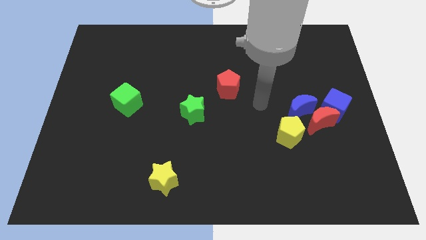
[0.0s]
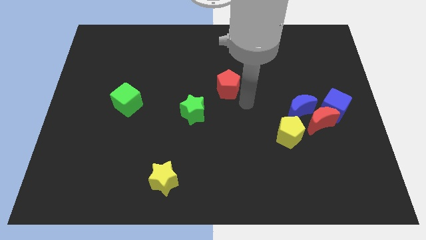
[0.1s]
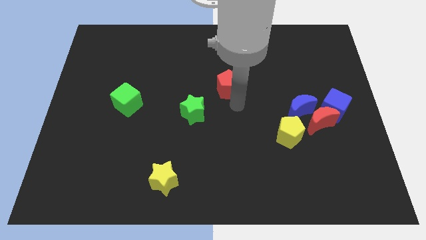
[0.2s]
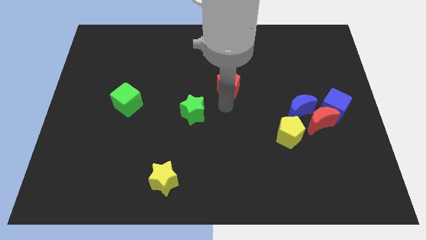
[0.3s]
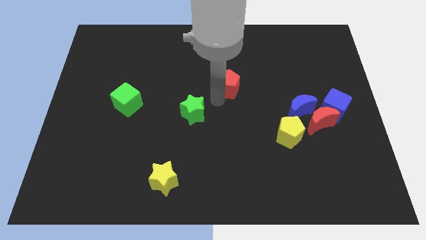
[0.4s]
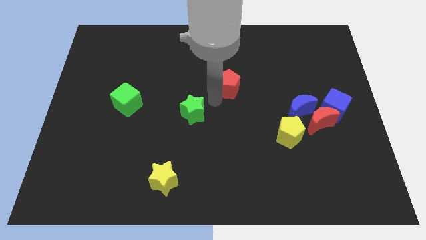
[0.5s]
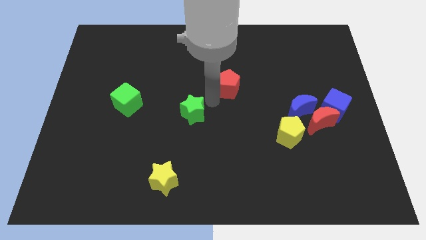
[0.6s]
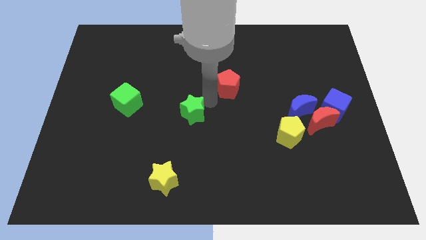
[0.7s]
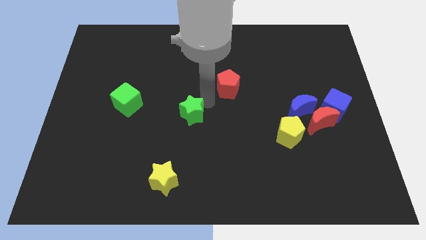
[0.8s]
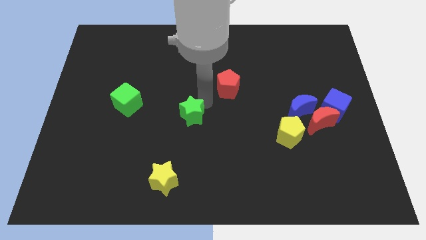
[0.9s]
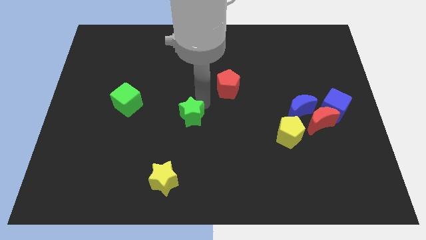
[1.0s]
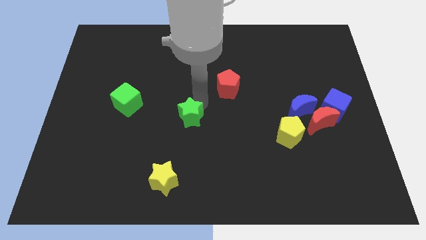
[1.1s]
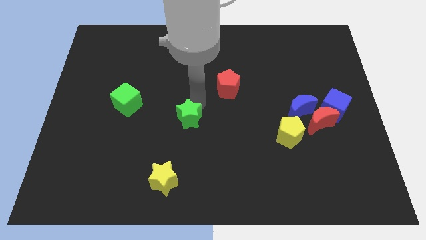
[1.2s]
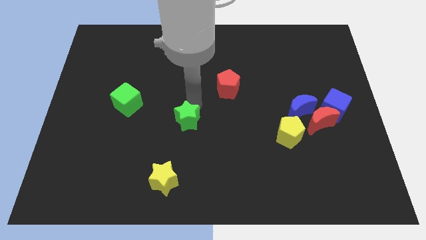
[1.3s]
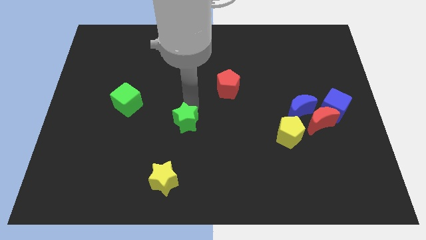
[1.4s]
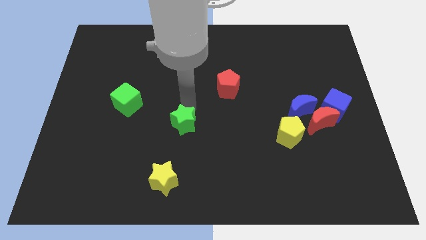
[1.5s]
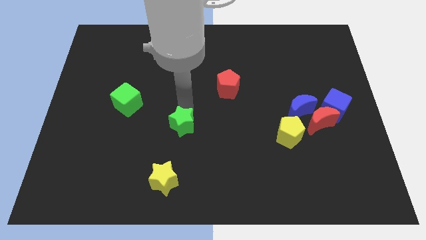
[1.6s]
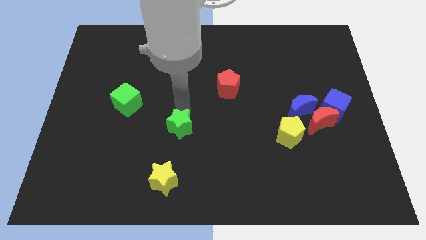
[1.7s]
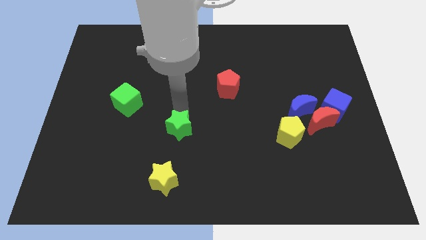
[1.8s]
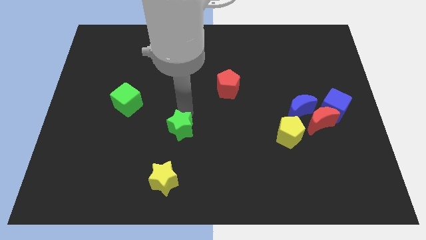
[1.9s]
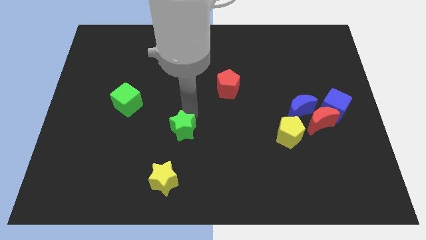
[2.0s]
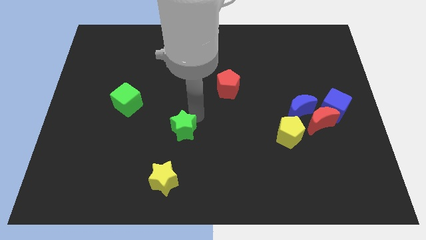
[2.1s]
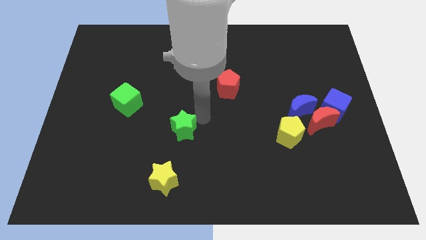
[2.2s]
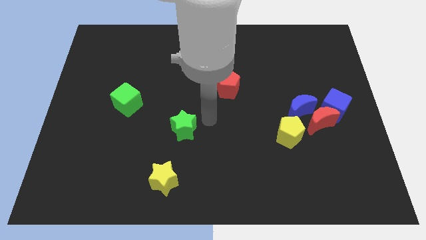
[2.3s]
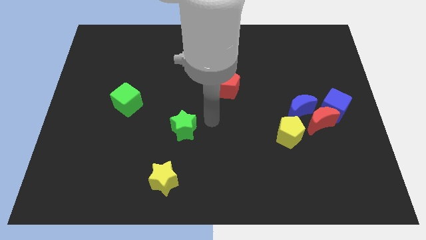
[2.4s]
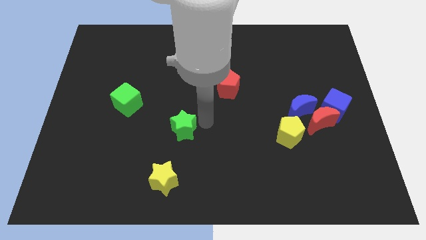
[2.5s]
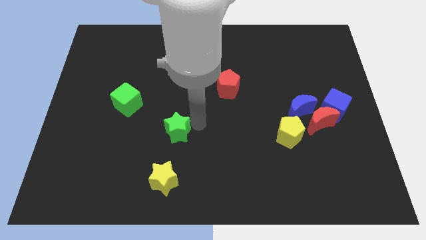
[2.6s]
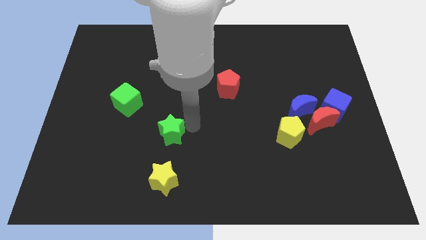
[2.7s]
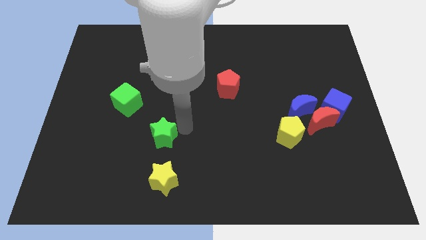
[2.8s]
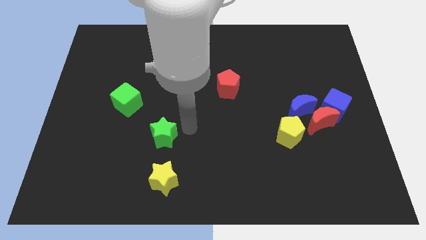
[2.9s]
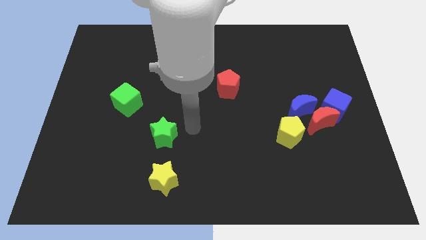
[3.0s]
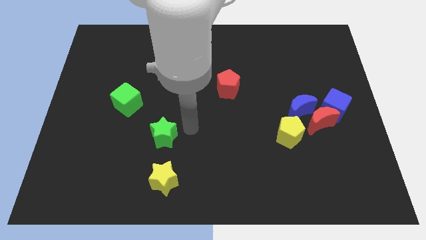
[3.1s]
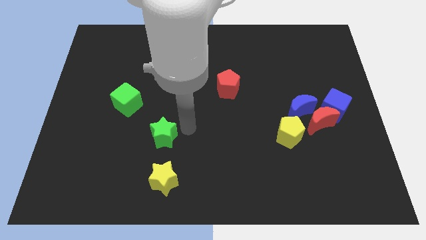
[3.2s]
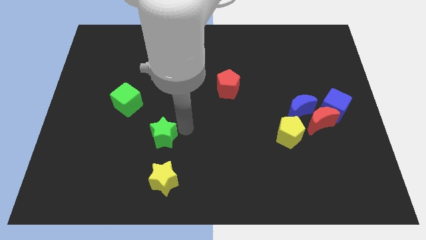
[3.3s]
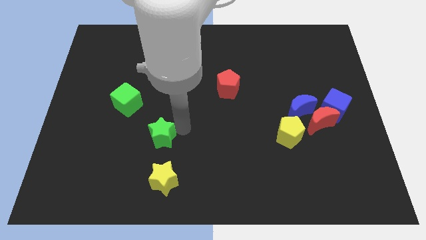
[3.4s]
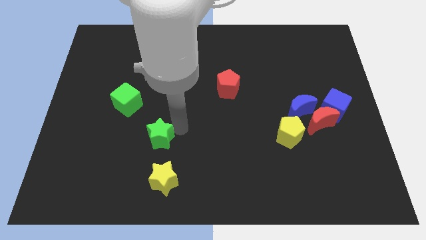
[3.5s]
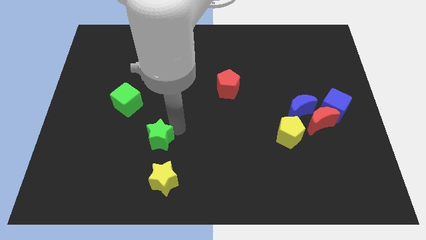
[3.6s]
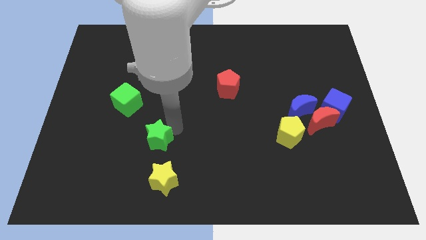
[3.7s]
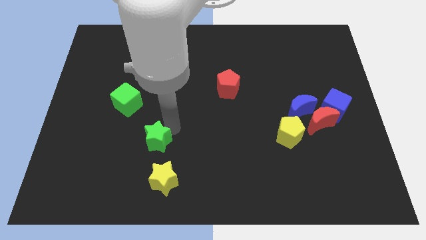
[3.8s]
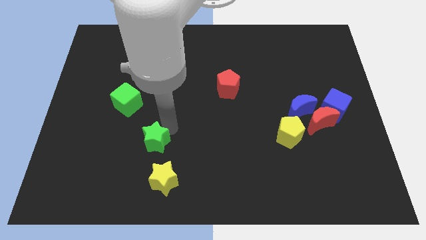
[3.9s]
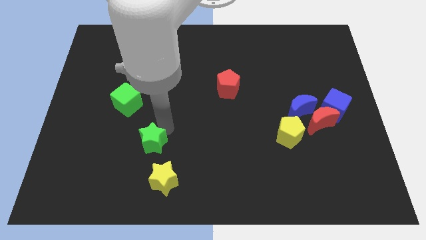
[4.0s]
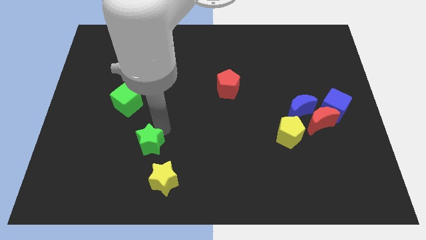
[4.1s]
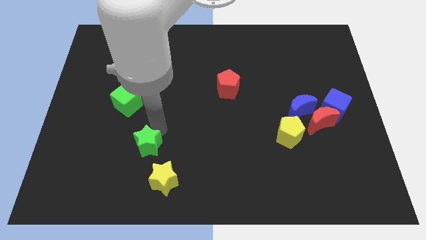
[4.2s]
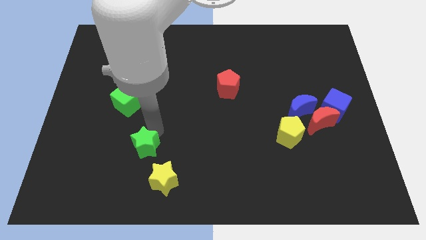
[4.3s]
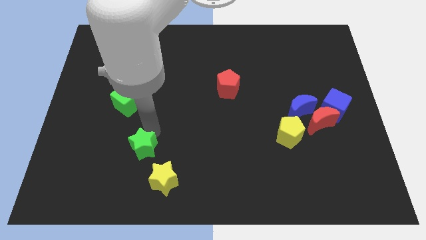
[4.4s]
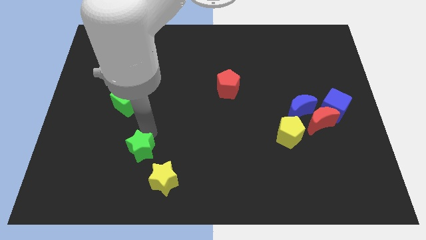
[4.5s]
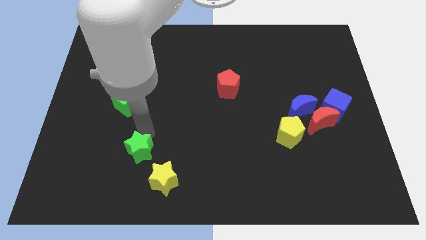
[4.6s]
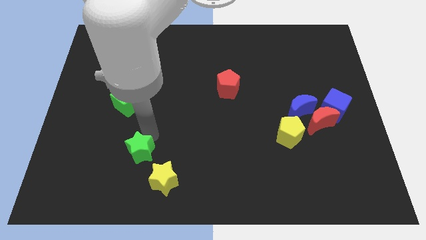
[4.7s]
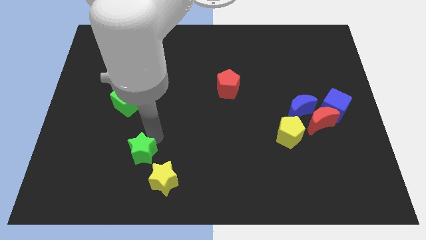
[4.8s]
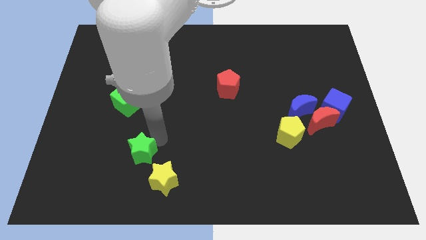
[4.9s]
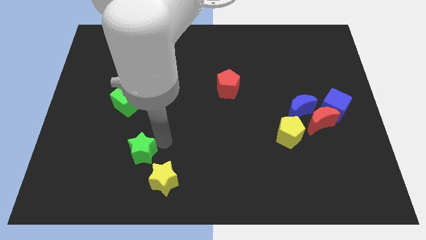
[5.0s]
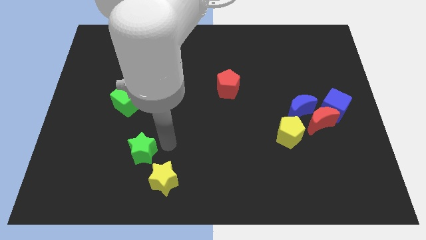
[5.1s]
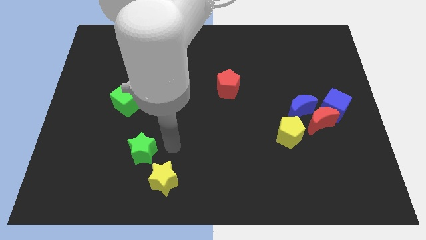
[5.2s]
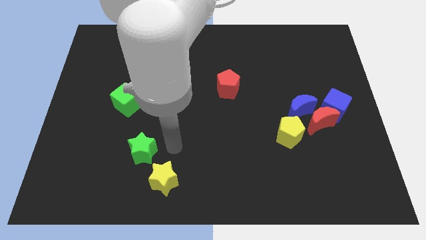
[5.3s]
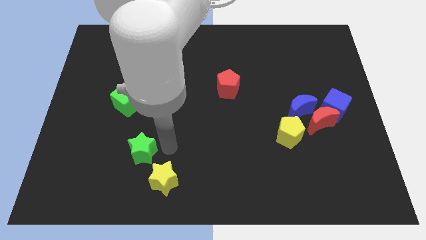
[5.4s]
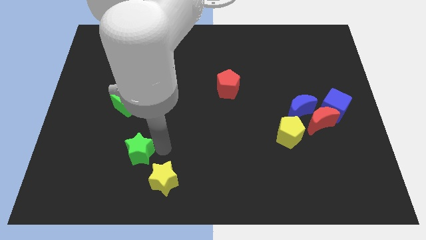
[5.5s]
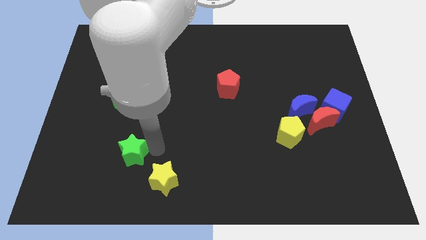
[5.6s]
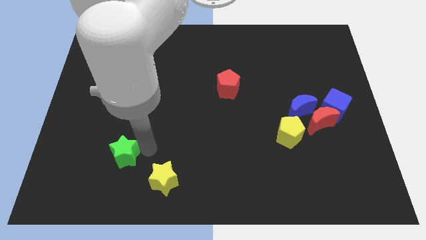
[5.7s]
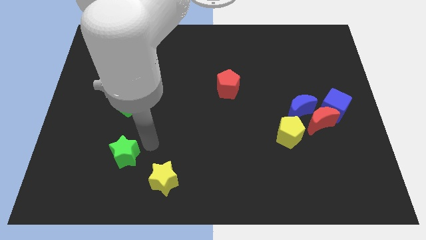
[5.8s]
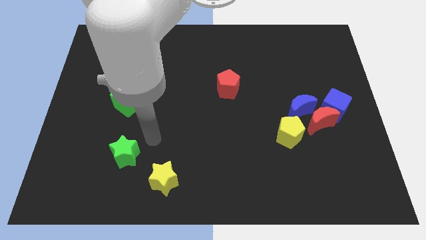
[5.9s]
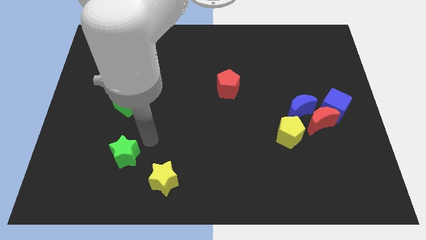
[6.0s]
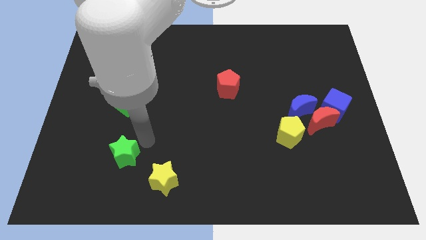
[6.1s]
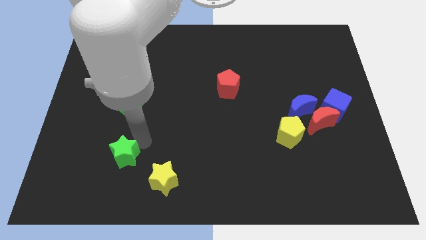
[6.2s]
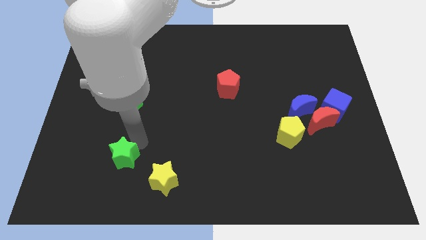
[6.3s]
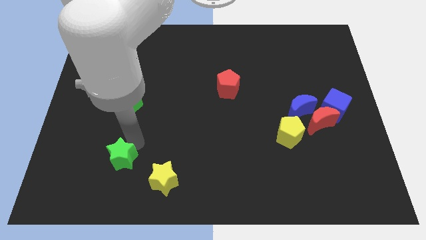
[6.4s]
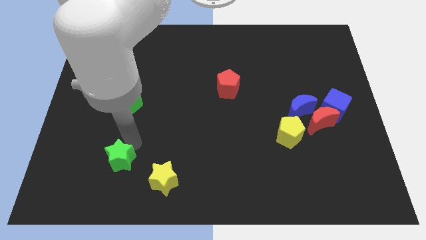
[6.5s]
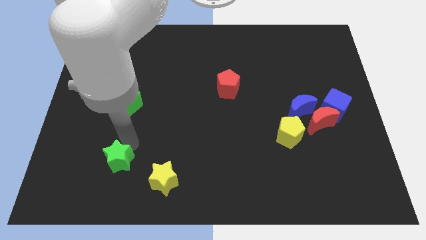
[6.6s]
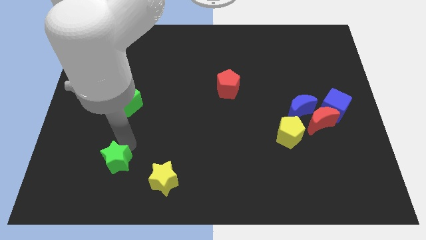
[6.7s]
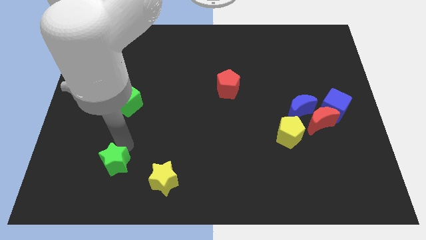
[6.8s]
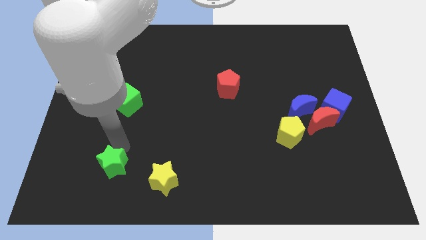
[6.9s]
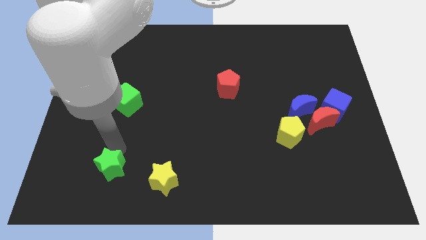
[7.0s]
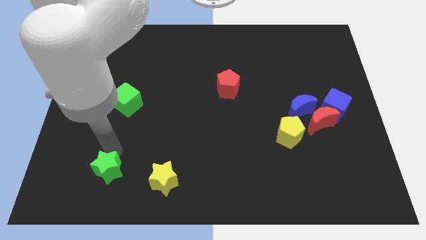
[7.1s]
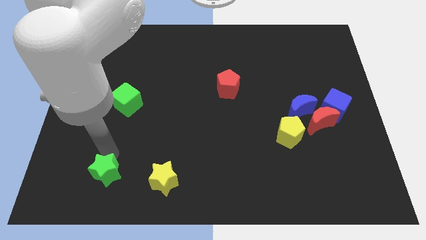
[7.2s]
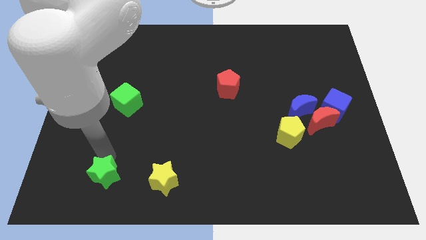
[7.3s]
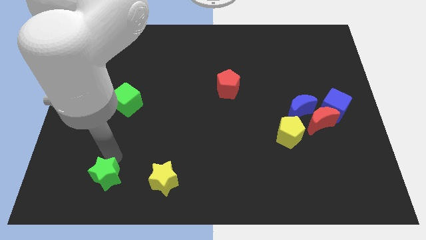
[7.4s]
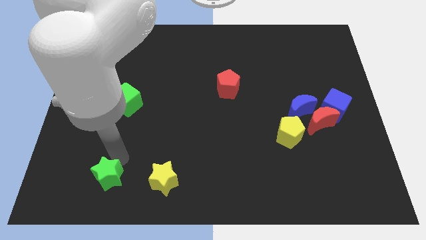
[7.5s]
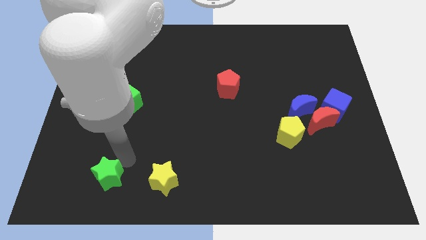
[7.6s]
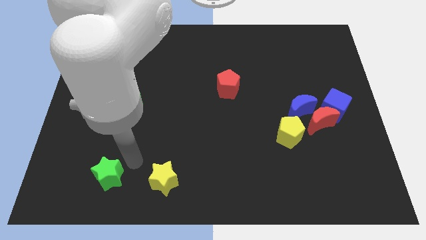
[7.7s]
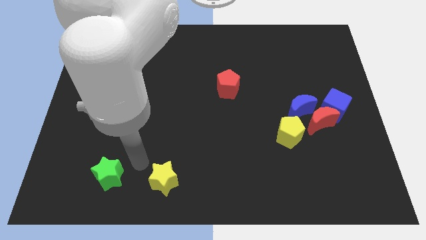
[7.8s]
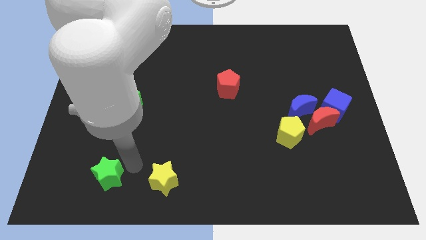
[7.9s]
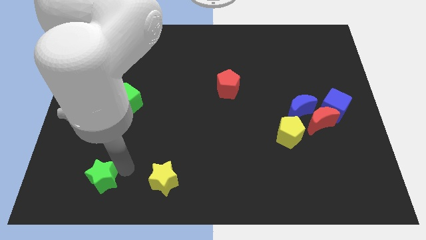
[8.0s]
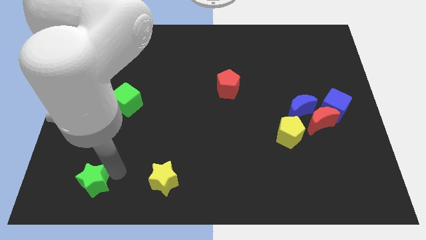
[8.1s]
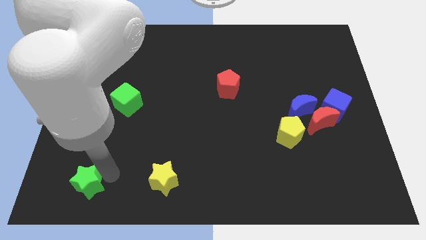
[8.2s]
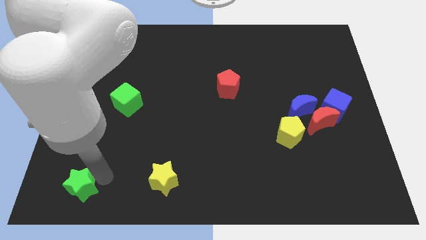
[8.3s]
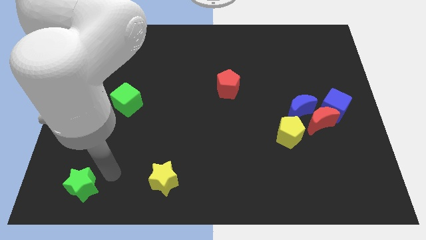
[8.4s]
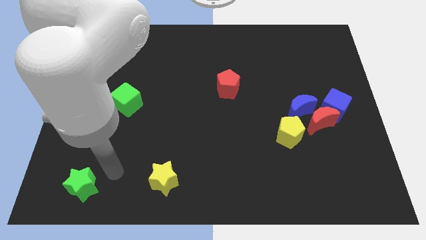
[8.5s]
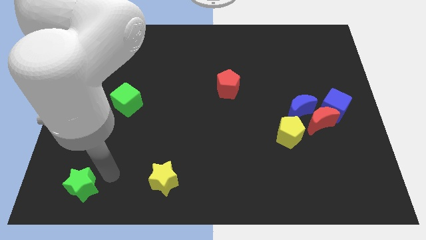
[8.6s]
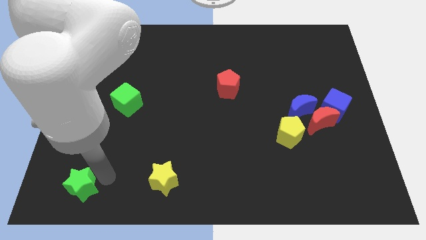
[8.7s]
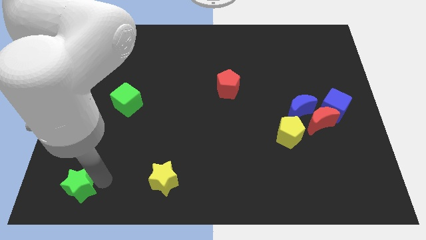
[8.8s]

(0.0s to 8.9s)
put the green star to the bottom left of the board
